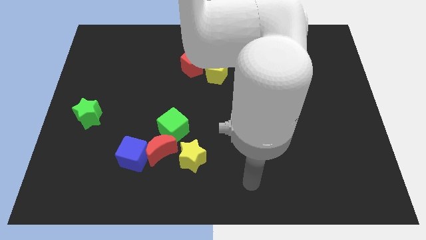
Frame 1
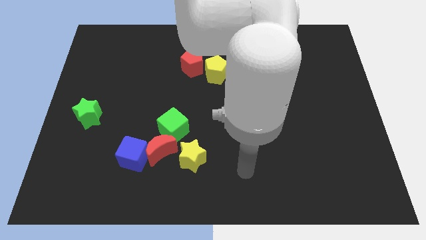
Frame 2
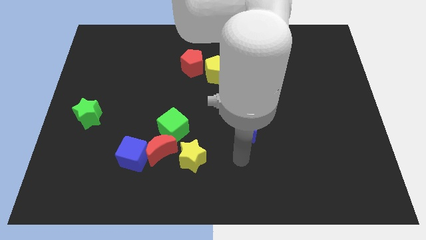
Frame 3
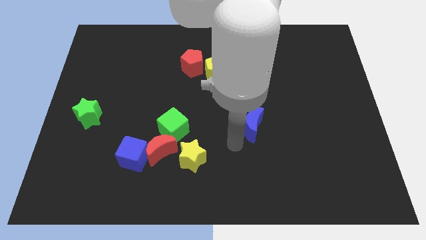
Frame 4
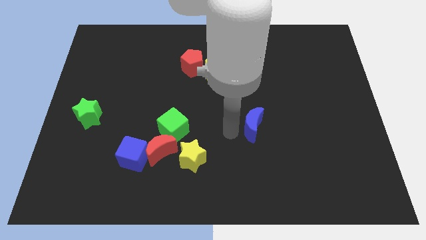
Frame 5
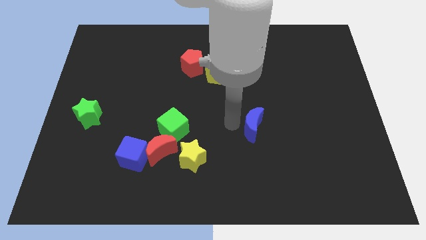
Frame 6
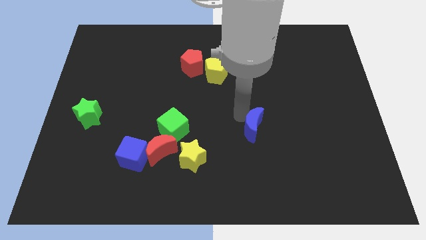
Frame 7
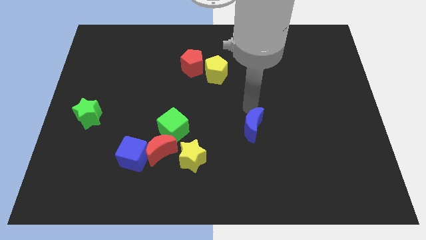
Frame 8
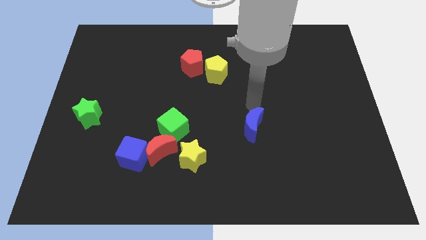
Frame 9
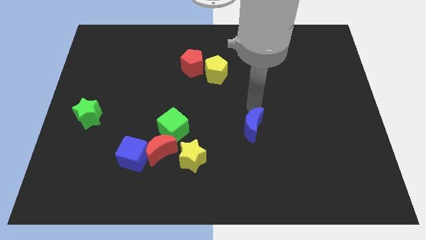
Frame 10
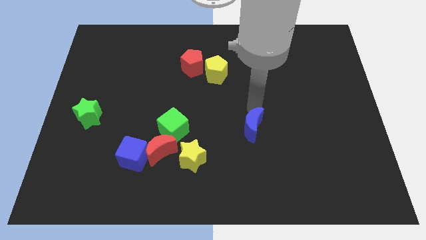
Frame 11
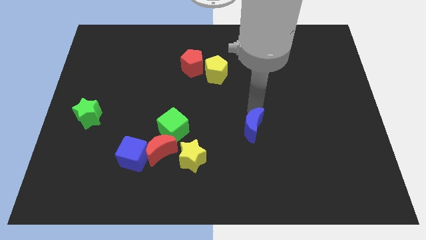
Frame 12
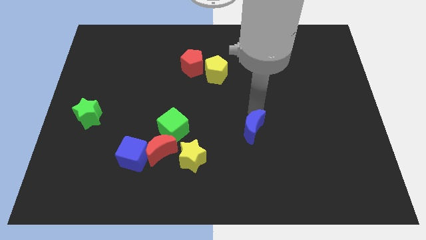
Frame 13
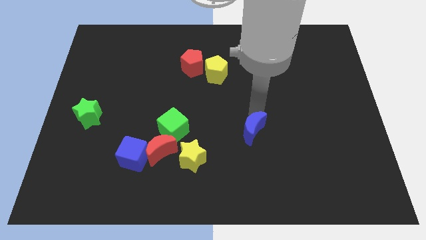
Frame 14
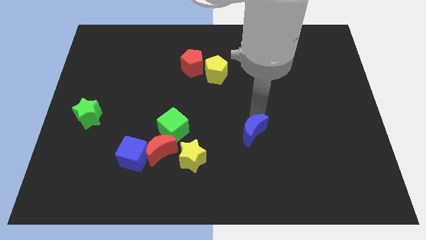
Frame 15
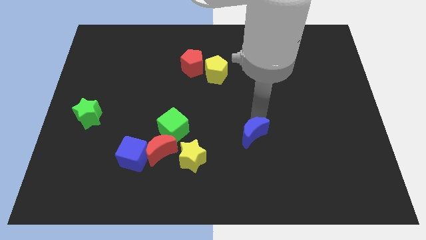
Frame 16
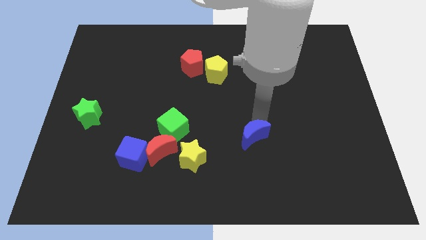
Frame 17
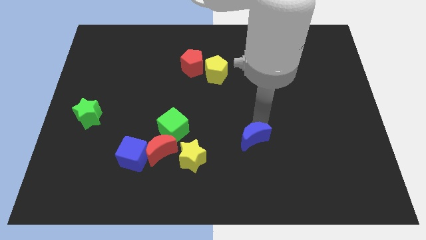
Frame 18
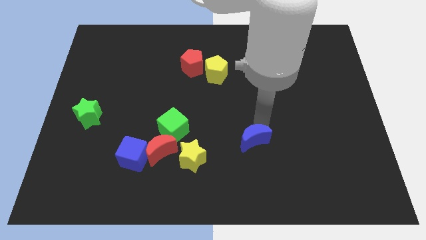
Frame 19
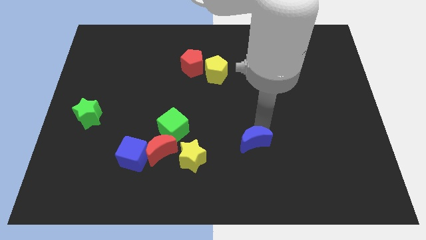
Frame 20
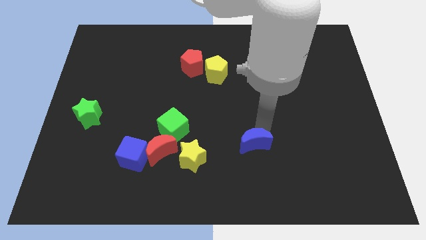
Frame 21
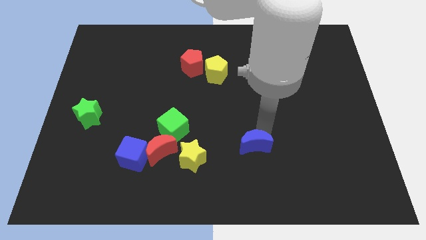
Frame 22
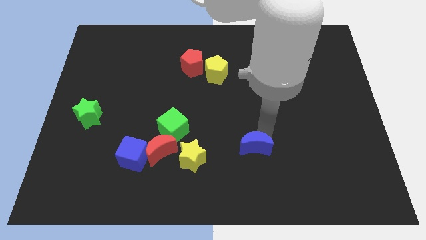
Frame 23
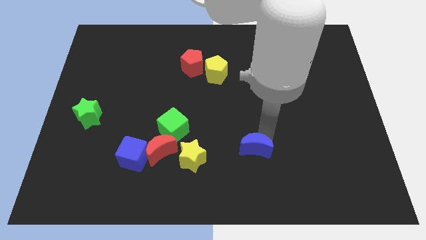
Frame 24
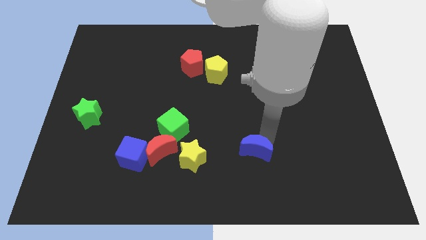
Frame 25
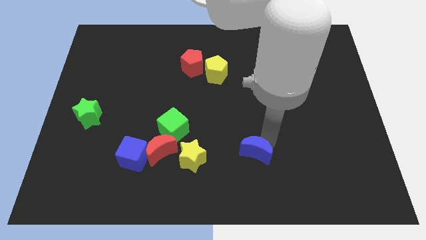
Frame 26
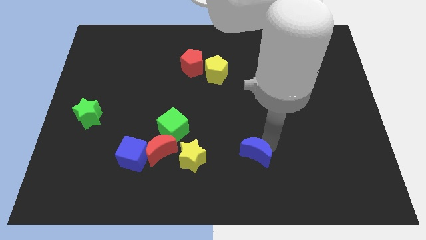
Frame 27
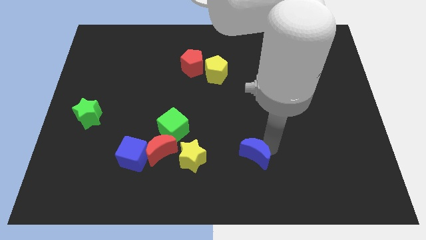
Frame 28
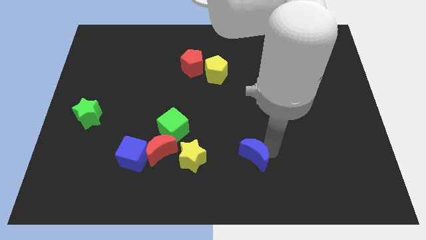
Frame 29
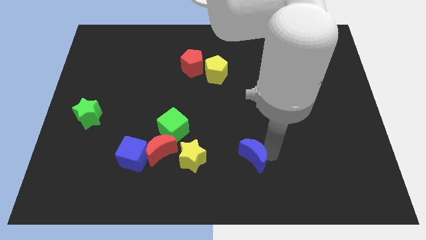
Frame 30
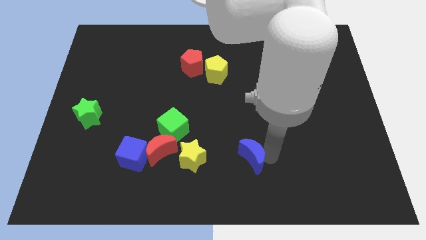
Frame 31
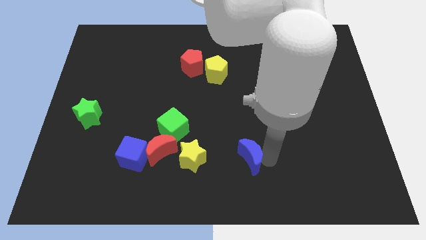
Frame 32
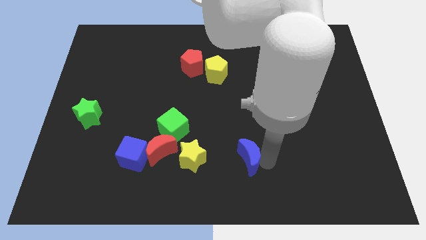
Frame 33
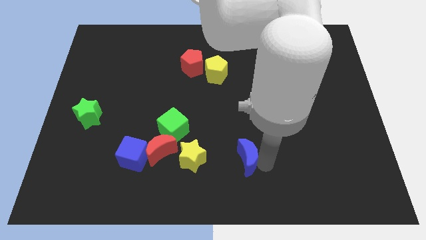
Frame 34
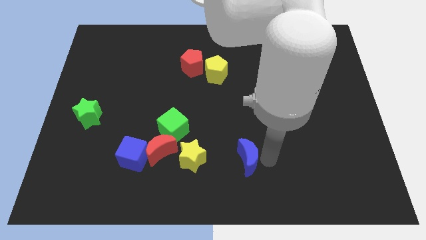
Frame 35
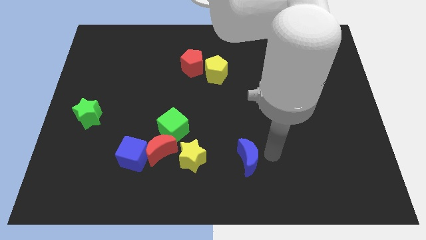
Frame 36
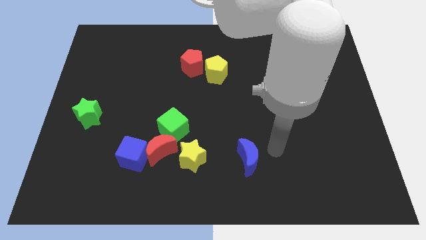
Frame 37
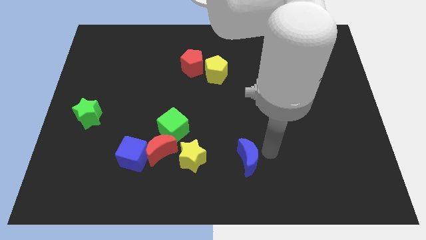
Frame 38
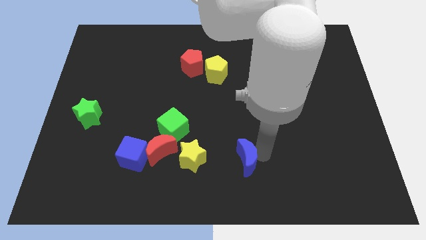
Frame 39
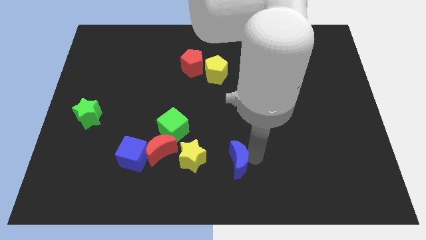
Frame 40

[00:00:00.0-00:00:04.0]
move the blue moon down and left diagonally a little

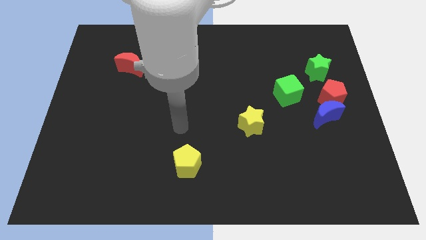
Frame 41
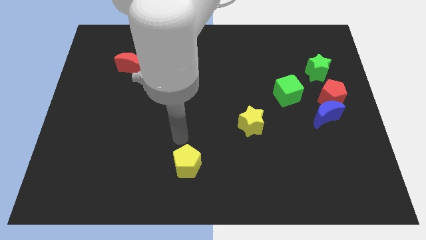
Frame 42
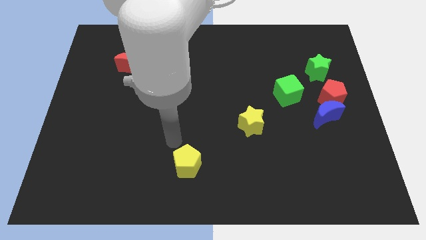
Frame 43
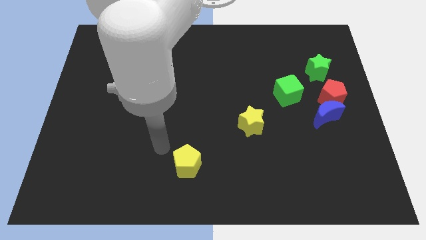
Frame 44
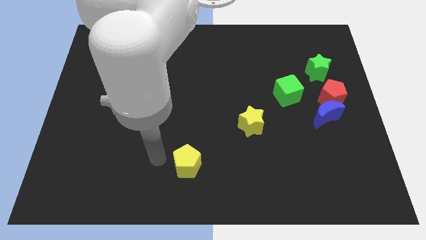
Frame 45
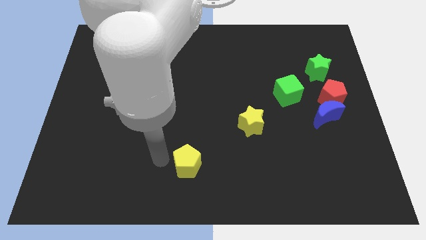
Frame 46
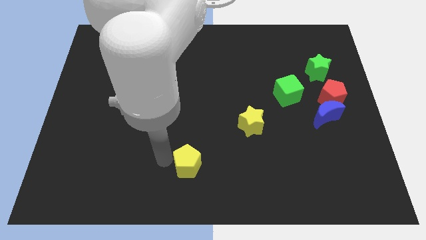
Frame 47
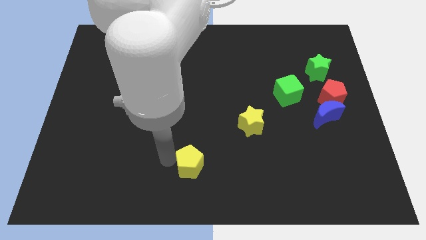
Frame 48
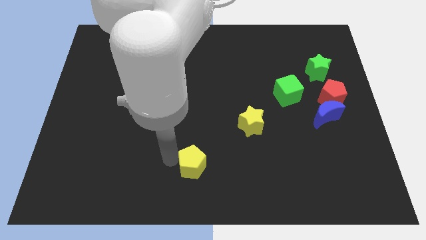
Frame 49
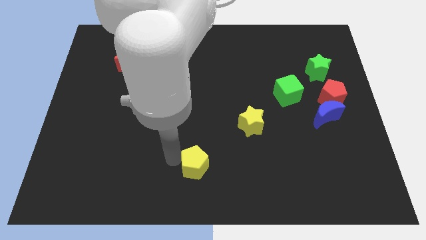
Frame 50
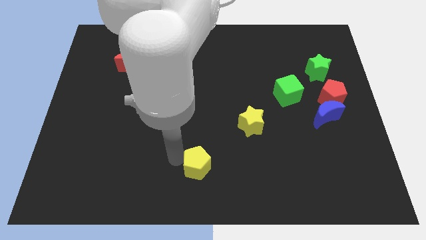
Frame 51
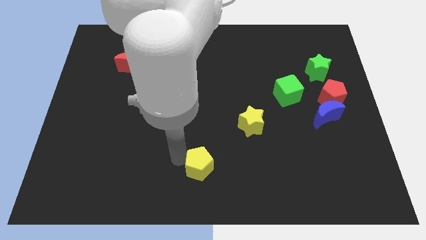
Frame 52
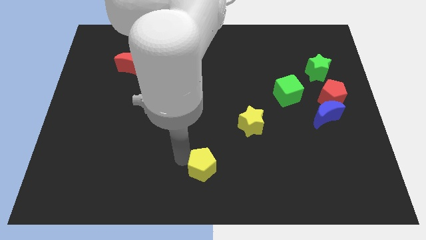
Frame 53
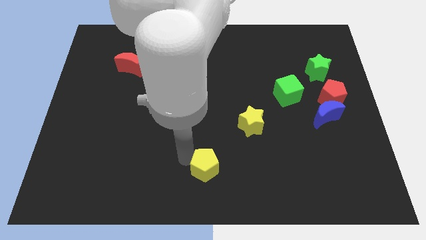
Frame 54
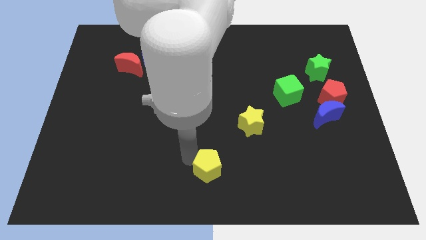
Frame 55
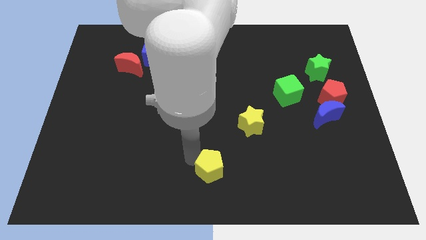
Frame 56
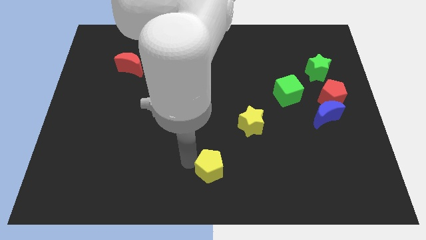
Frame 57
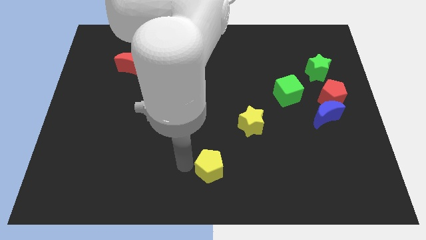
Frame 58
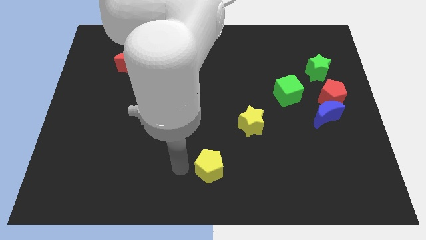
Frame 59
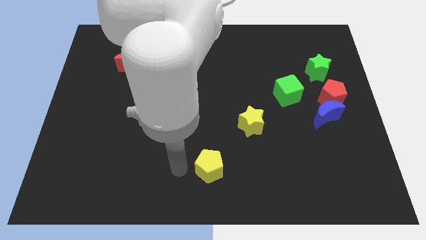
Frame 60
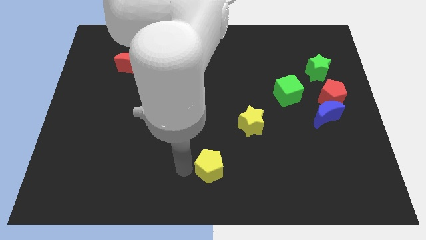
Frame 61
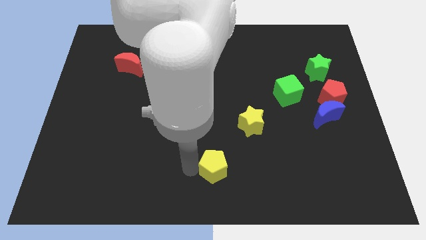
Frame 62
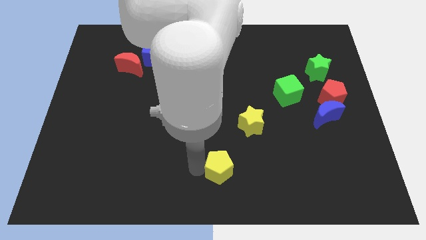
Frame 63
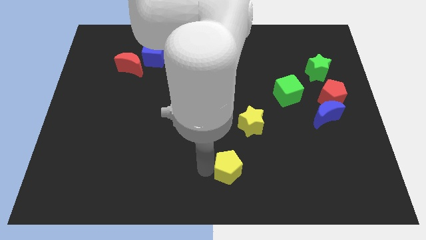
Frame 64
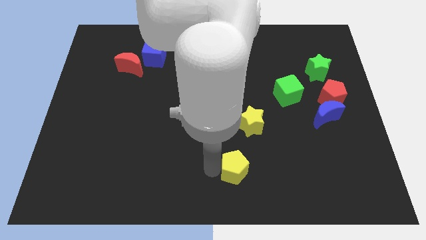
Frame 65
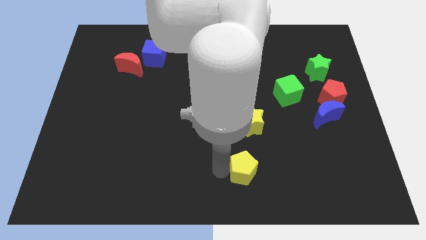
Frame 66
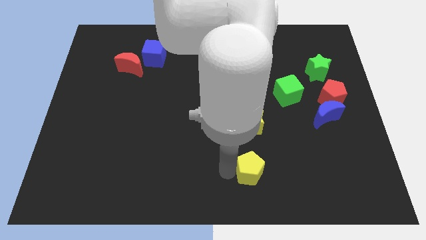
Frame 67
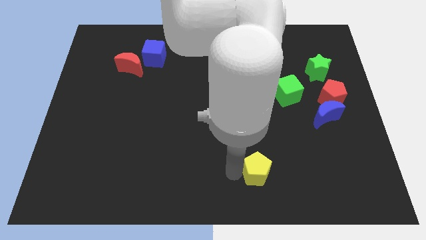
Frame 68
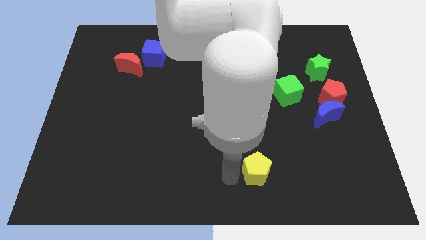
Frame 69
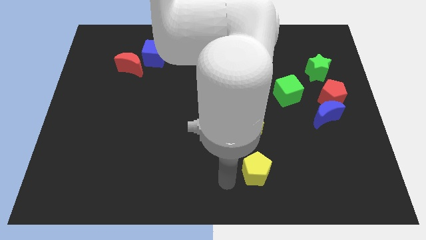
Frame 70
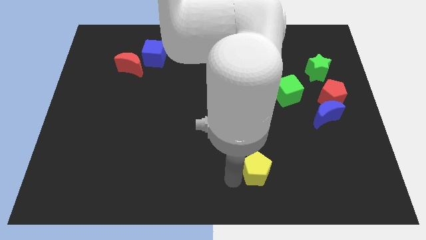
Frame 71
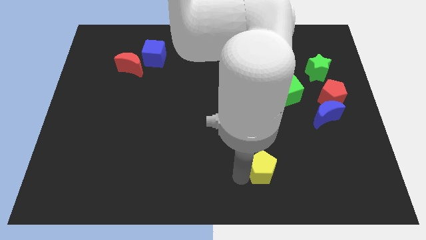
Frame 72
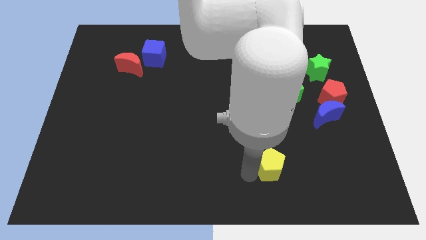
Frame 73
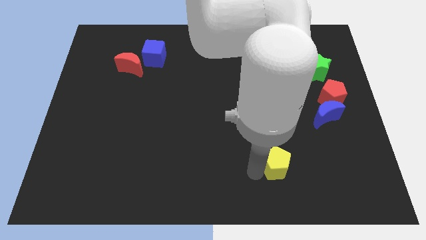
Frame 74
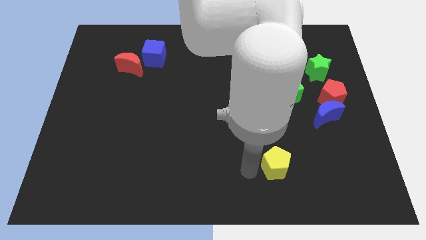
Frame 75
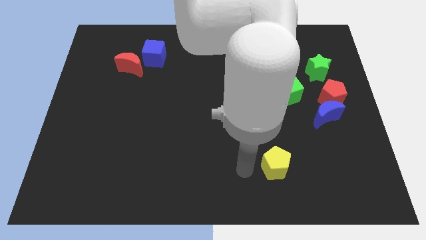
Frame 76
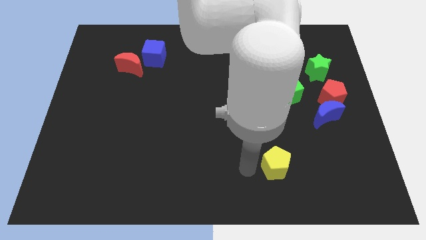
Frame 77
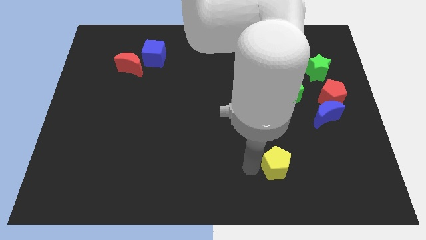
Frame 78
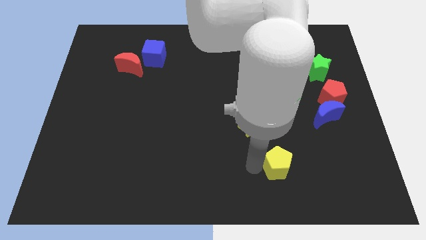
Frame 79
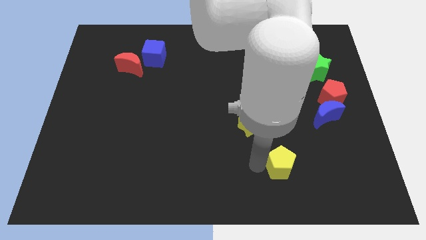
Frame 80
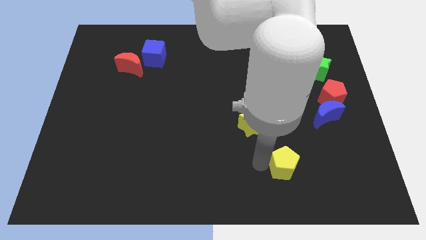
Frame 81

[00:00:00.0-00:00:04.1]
push the yellow pentagon right

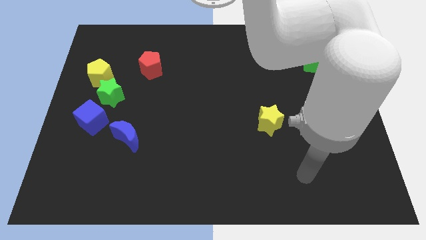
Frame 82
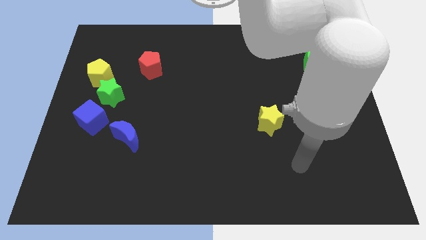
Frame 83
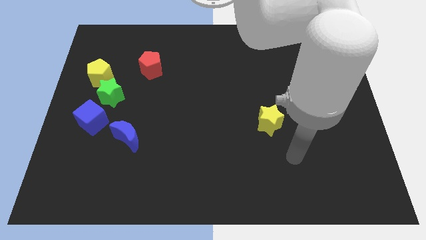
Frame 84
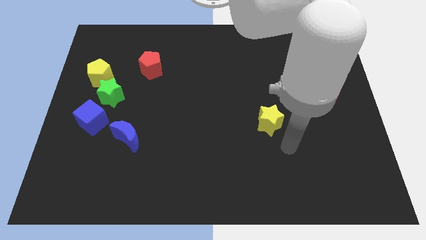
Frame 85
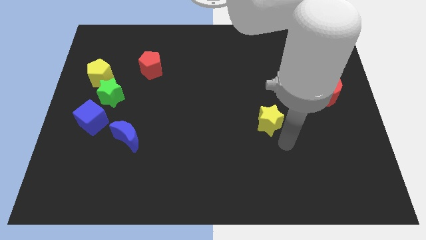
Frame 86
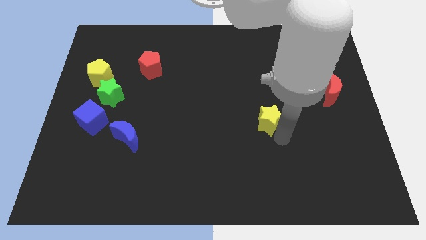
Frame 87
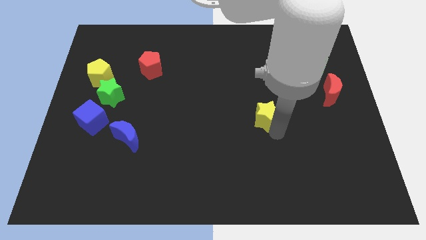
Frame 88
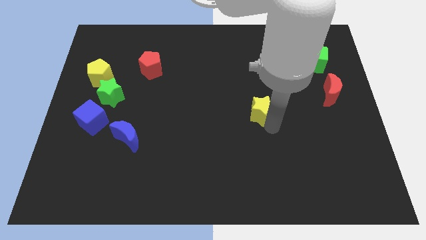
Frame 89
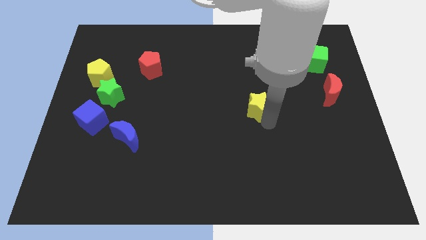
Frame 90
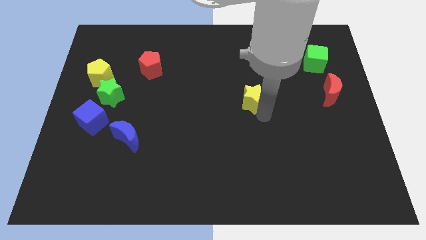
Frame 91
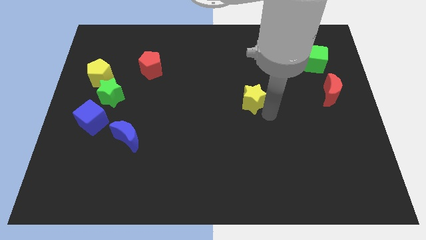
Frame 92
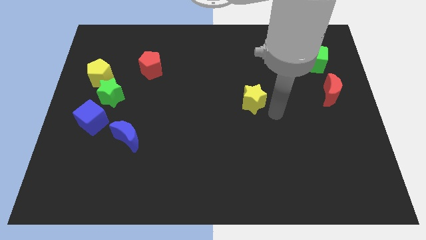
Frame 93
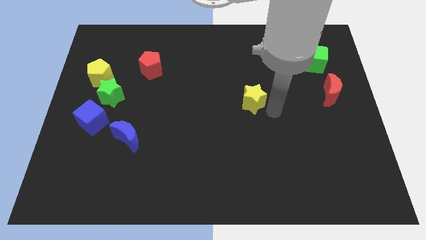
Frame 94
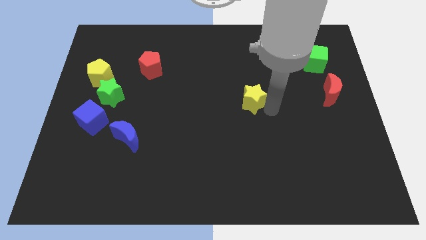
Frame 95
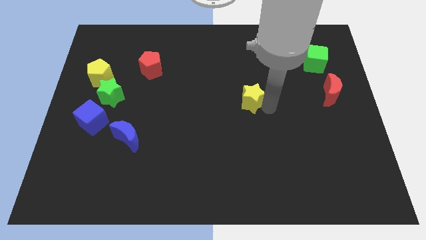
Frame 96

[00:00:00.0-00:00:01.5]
push the yellow star up and left diagonally a little
